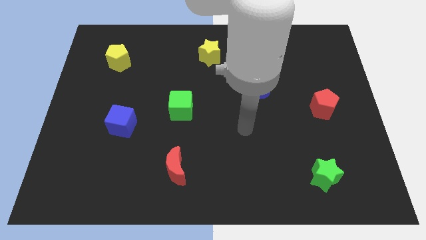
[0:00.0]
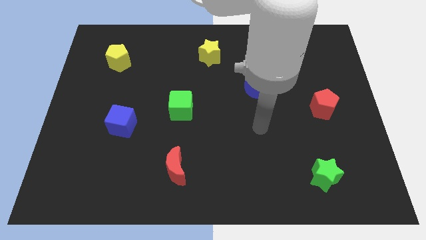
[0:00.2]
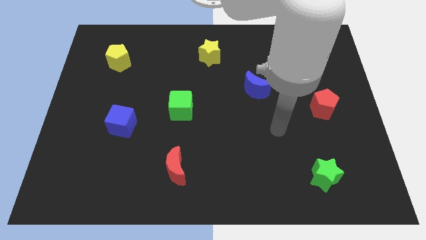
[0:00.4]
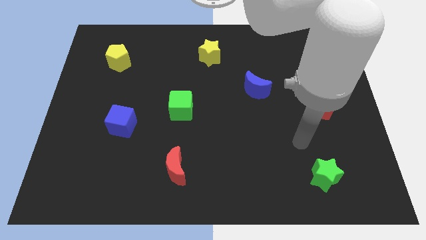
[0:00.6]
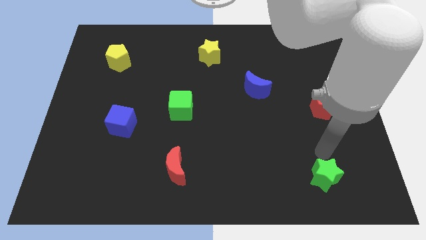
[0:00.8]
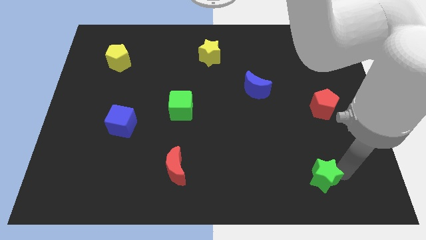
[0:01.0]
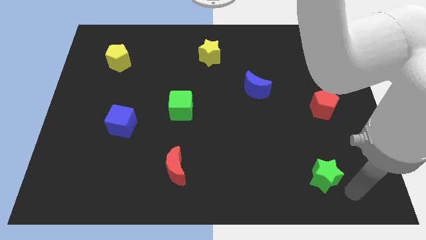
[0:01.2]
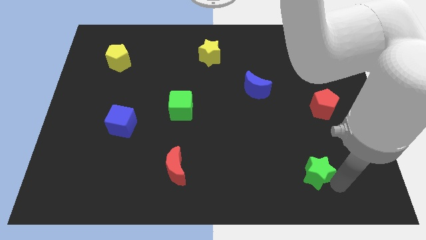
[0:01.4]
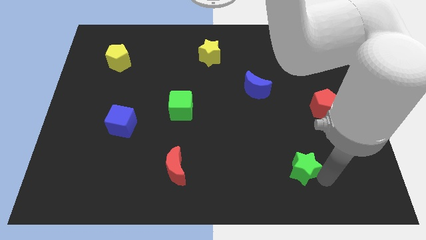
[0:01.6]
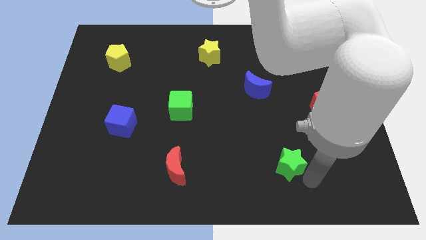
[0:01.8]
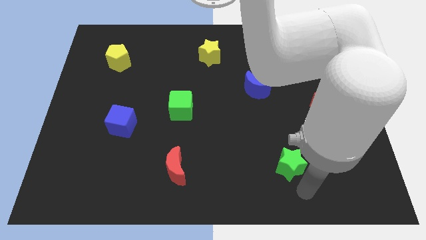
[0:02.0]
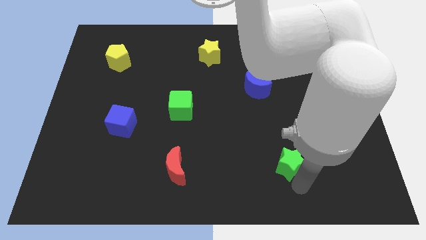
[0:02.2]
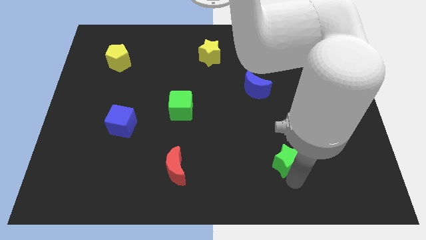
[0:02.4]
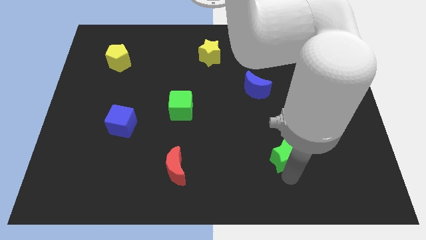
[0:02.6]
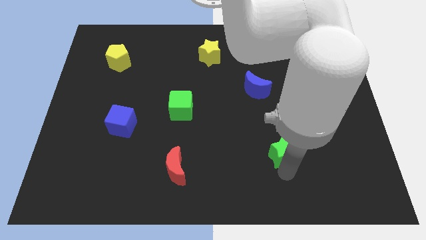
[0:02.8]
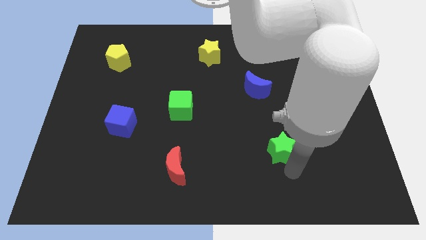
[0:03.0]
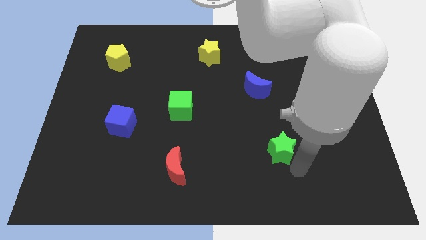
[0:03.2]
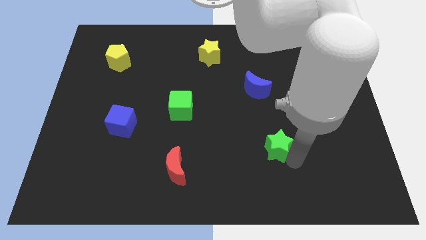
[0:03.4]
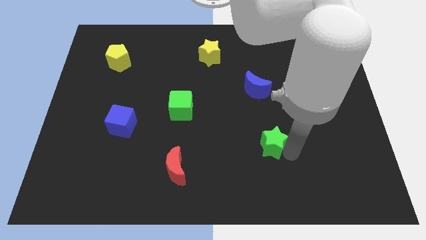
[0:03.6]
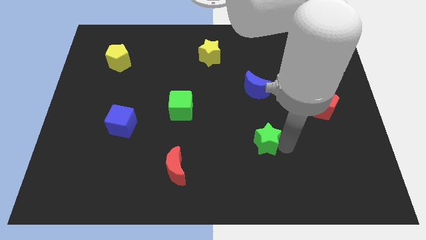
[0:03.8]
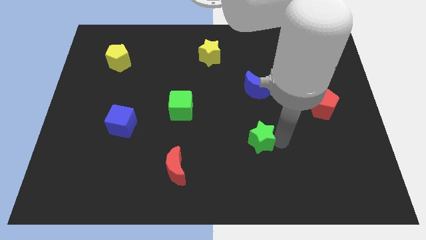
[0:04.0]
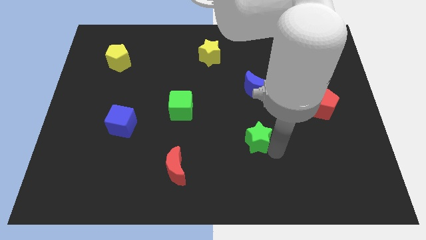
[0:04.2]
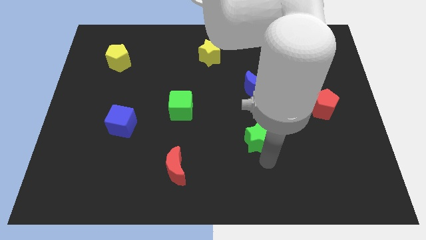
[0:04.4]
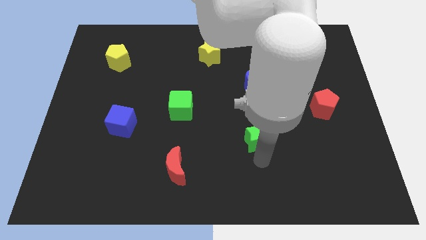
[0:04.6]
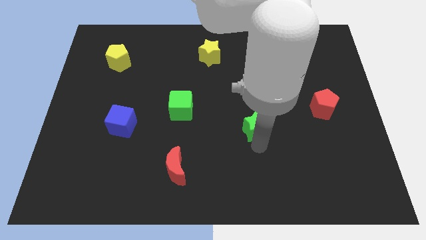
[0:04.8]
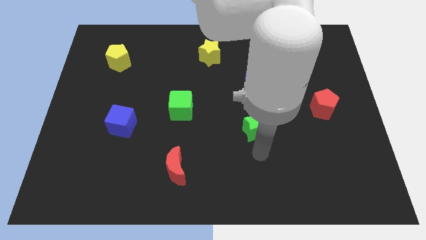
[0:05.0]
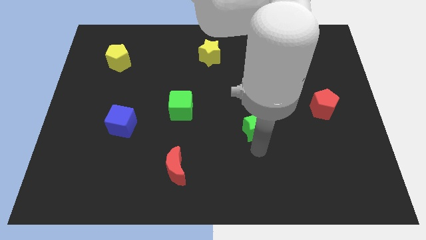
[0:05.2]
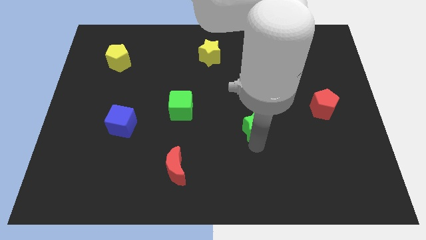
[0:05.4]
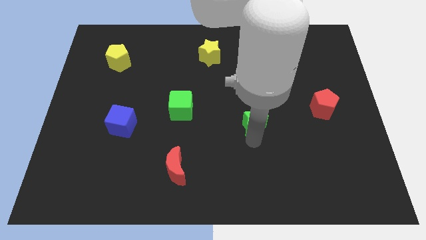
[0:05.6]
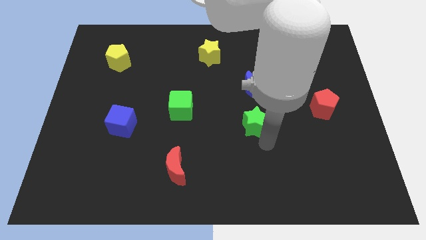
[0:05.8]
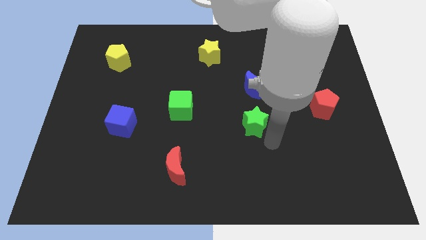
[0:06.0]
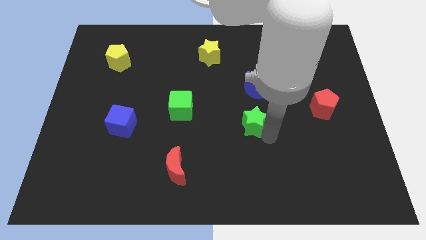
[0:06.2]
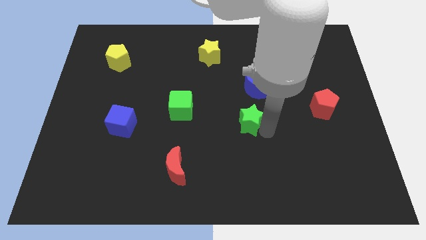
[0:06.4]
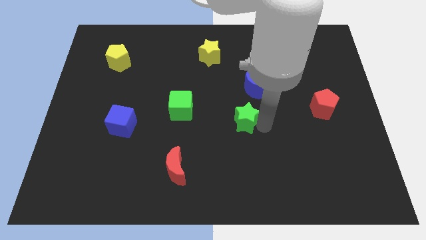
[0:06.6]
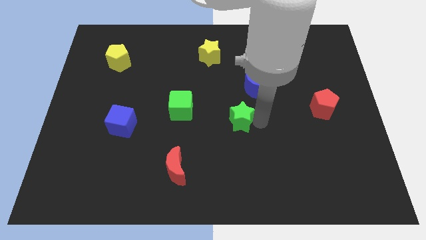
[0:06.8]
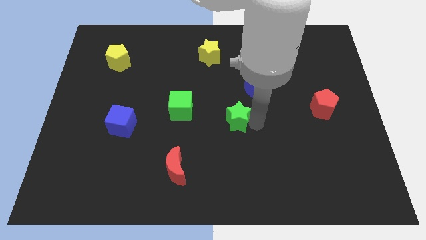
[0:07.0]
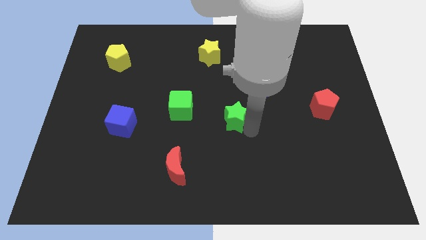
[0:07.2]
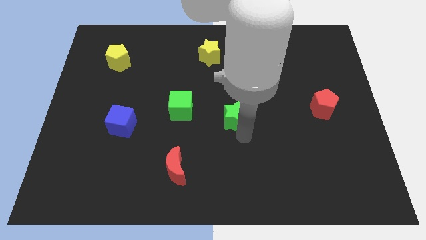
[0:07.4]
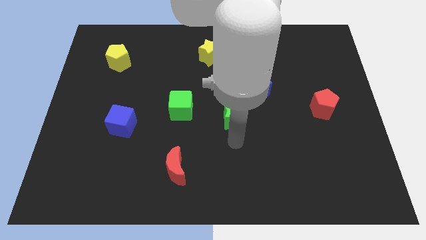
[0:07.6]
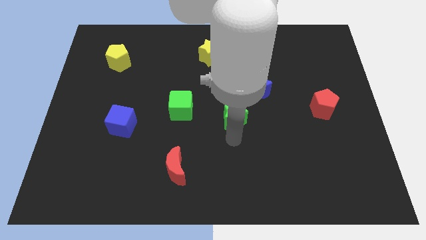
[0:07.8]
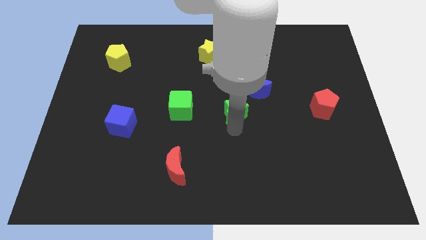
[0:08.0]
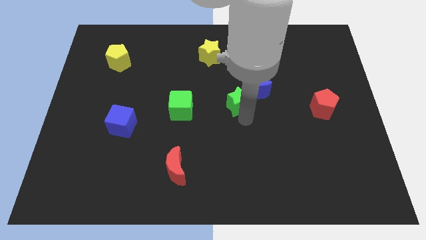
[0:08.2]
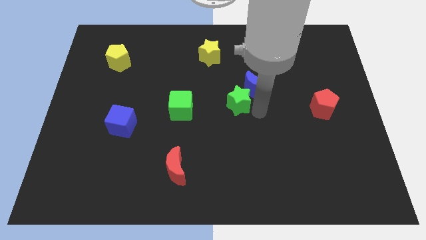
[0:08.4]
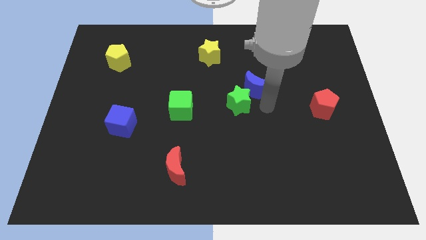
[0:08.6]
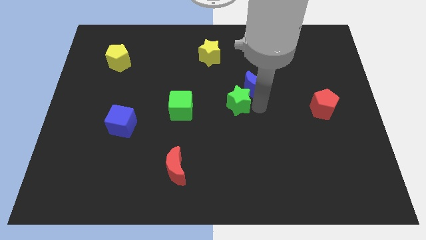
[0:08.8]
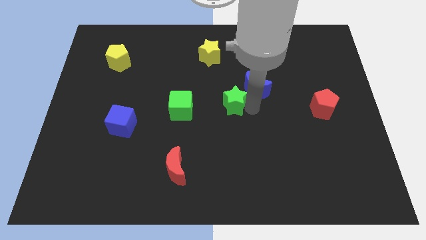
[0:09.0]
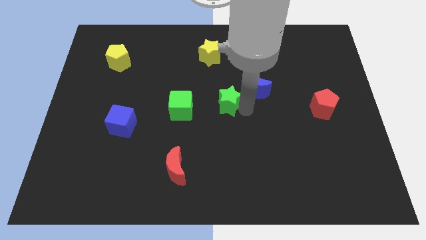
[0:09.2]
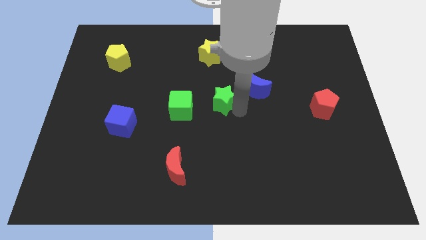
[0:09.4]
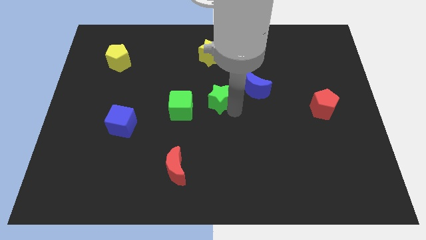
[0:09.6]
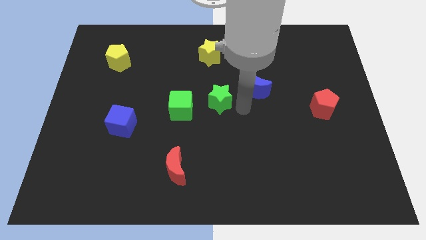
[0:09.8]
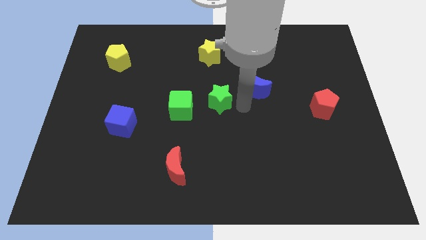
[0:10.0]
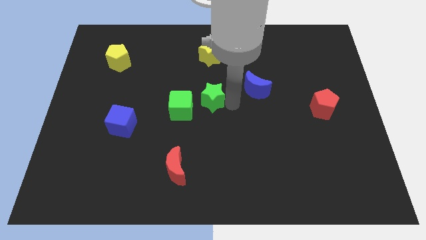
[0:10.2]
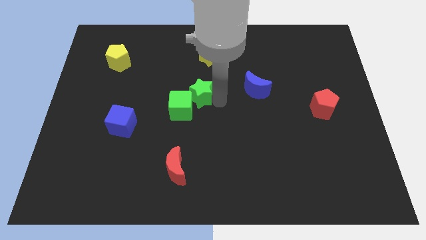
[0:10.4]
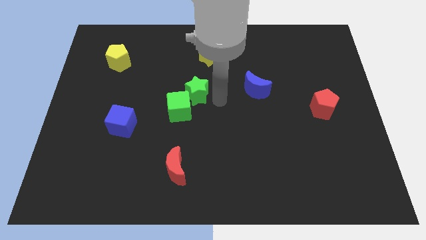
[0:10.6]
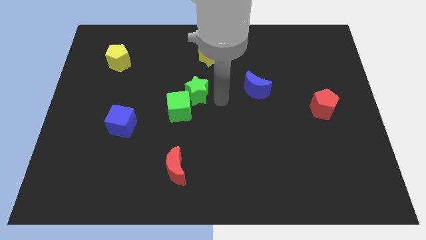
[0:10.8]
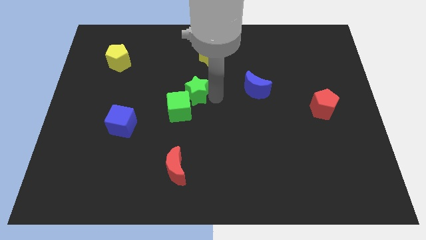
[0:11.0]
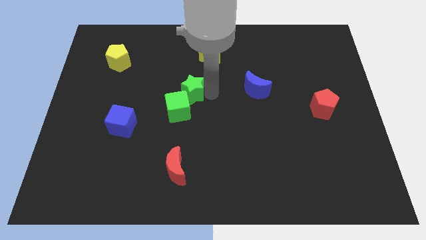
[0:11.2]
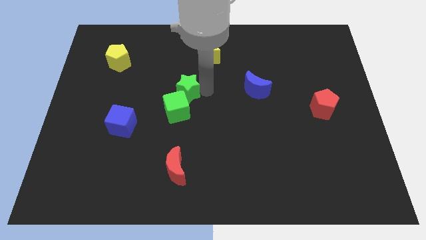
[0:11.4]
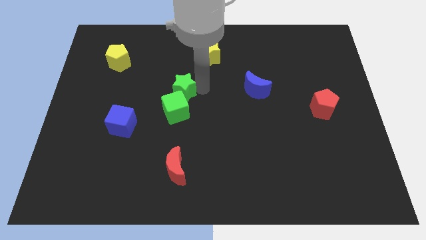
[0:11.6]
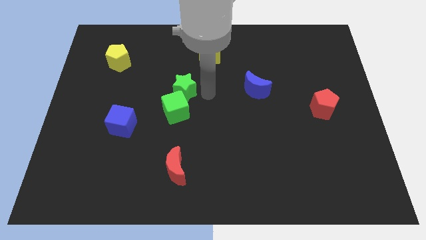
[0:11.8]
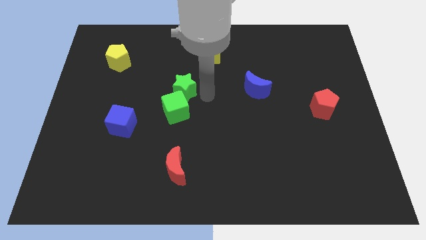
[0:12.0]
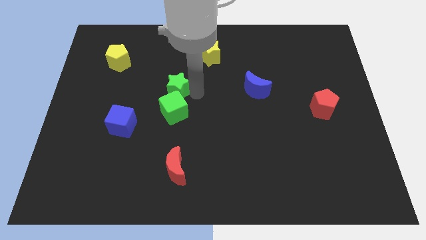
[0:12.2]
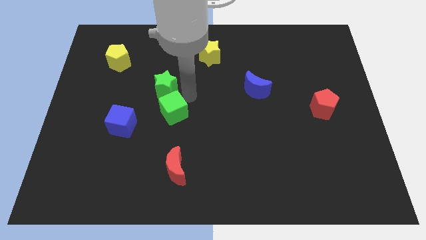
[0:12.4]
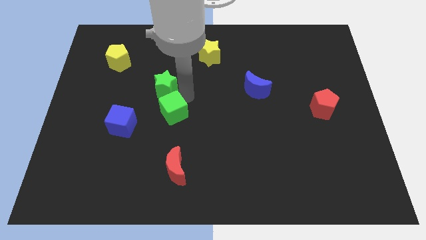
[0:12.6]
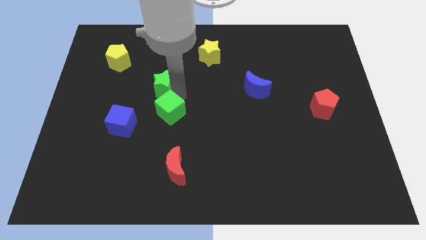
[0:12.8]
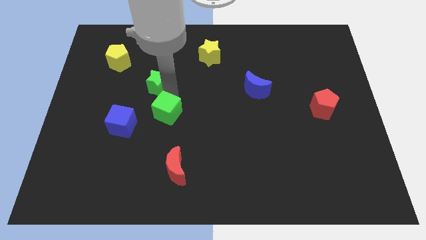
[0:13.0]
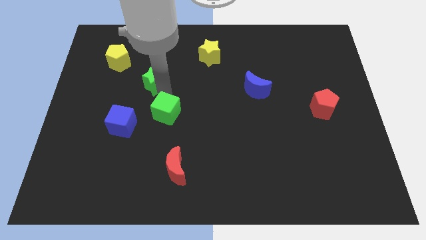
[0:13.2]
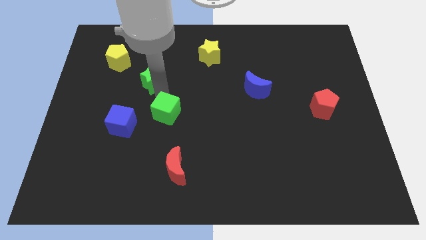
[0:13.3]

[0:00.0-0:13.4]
put the green star to the bottom right of the yellow pentagon
